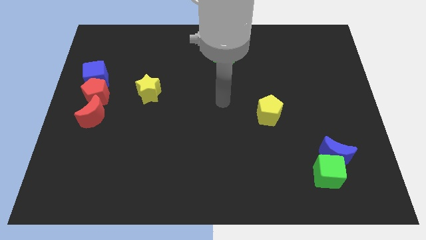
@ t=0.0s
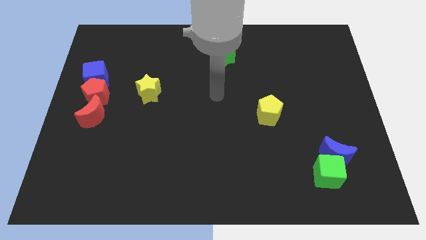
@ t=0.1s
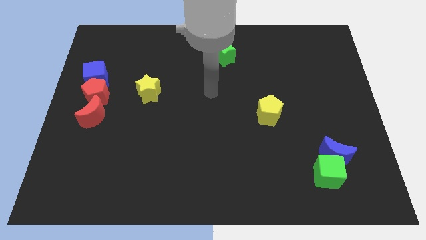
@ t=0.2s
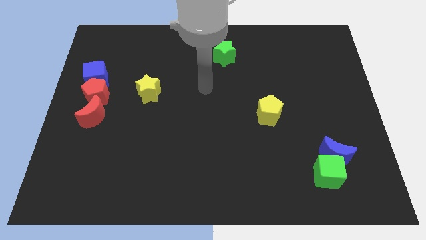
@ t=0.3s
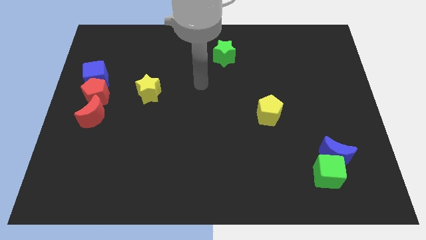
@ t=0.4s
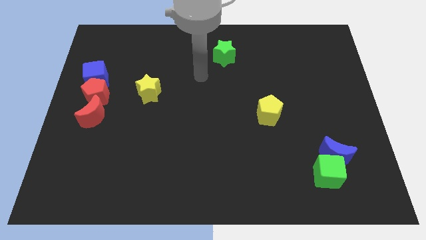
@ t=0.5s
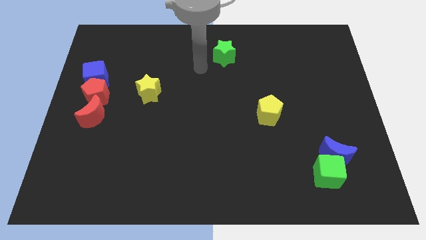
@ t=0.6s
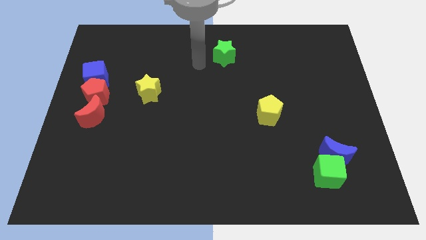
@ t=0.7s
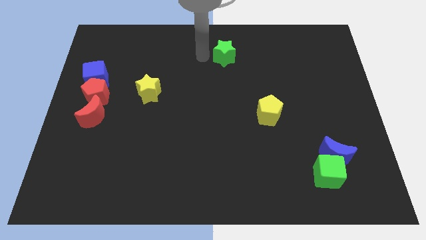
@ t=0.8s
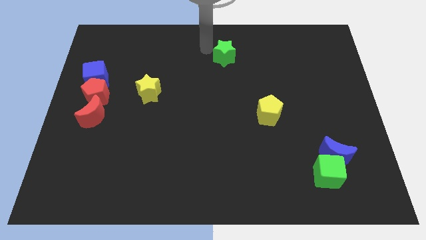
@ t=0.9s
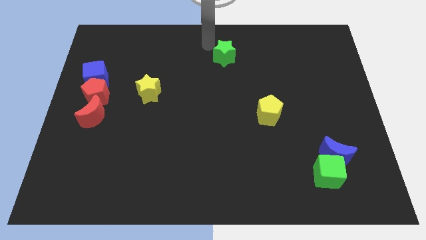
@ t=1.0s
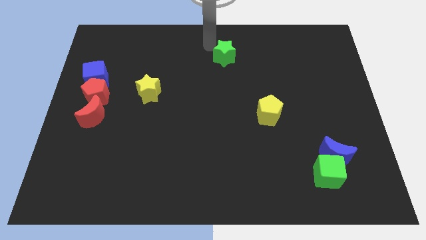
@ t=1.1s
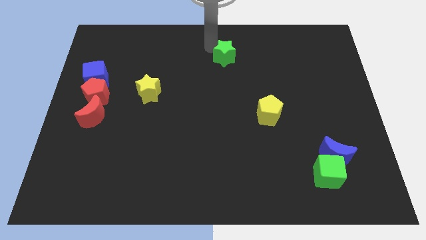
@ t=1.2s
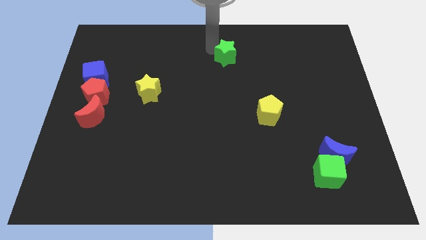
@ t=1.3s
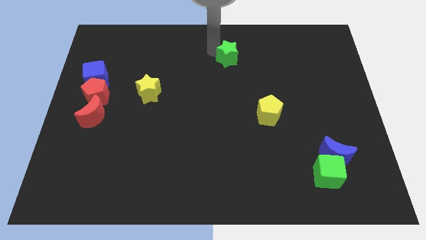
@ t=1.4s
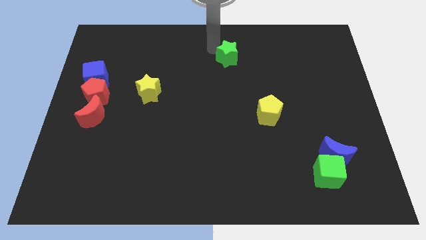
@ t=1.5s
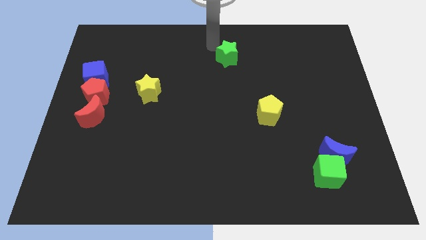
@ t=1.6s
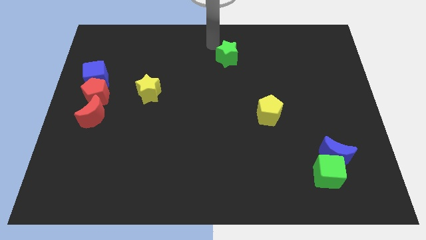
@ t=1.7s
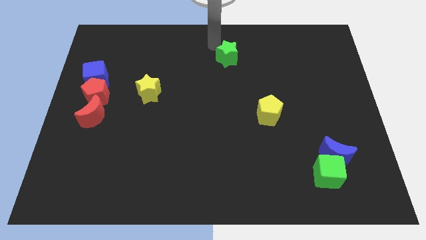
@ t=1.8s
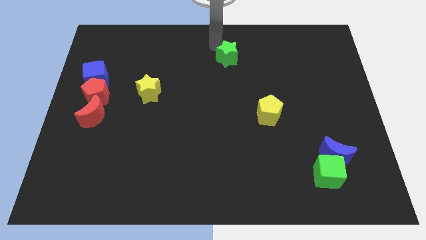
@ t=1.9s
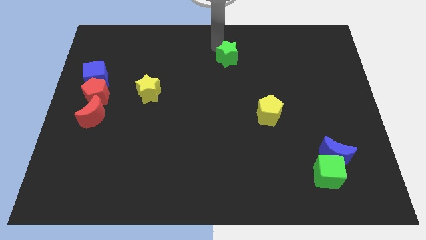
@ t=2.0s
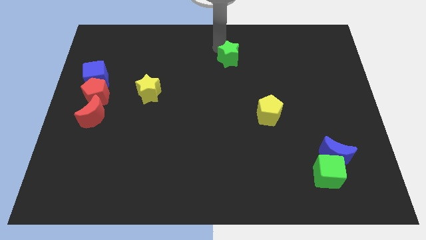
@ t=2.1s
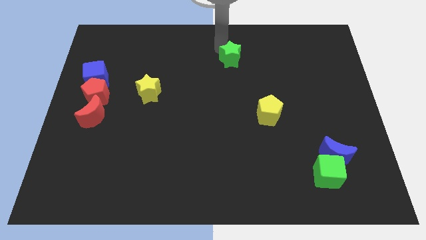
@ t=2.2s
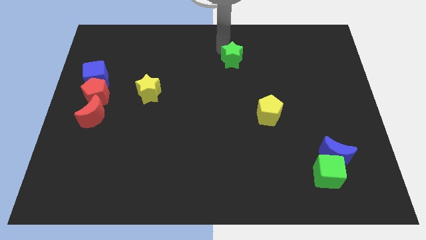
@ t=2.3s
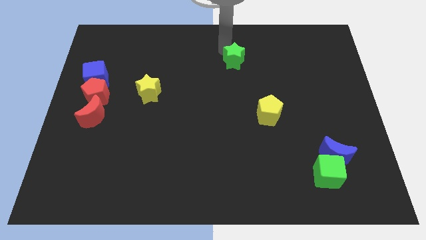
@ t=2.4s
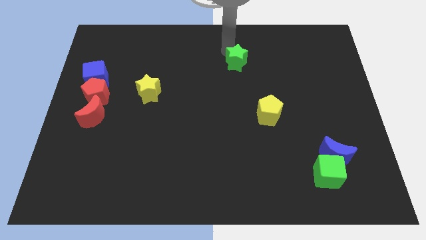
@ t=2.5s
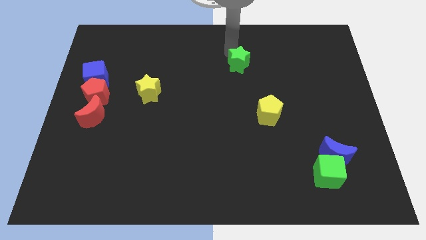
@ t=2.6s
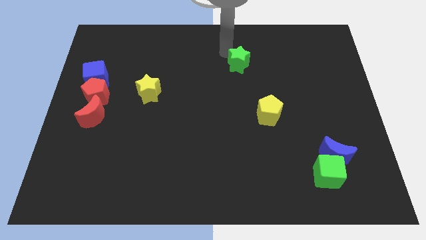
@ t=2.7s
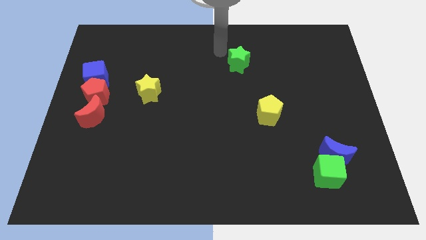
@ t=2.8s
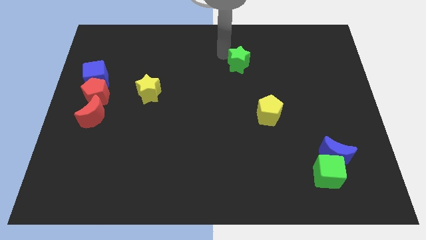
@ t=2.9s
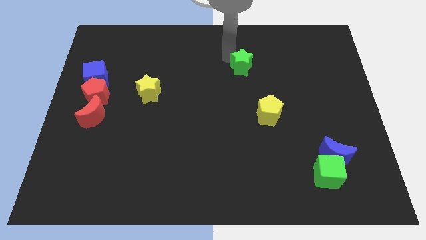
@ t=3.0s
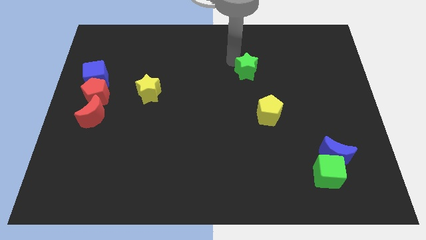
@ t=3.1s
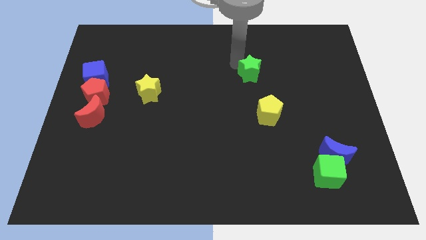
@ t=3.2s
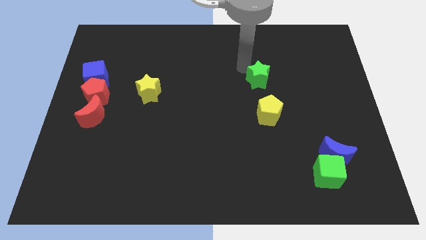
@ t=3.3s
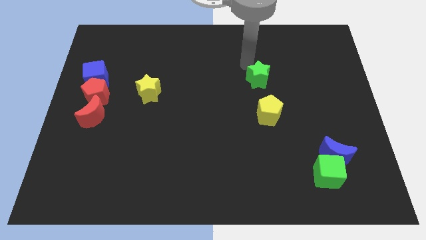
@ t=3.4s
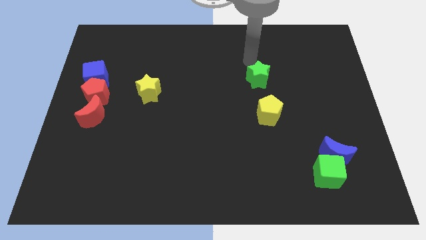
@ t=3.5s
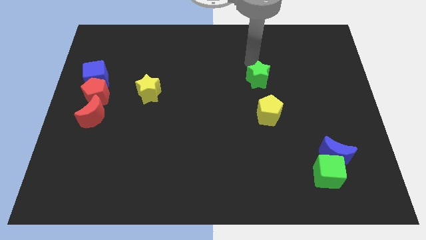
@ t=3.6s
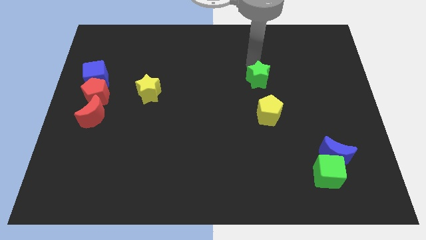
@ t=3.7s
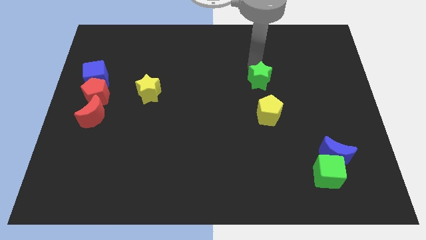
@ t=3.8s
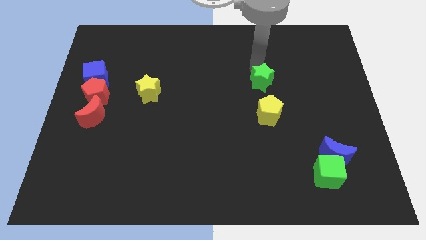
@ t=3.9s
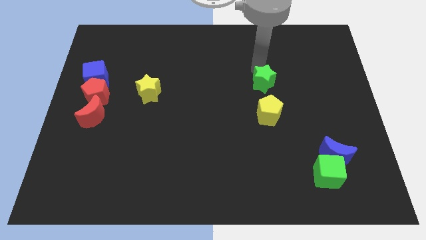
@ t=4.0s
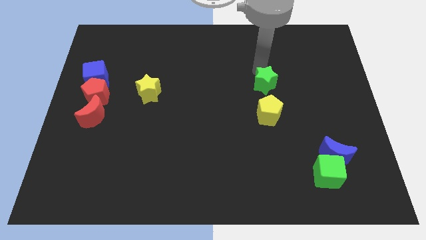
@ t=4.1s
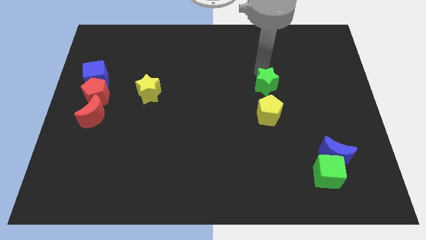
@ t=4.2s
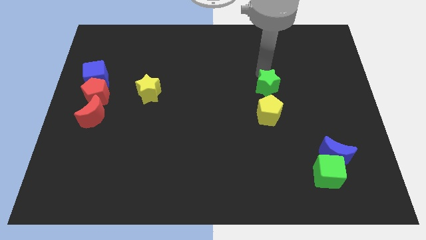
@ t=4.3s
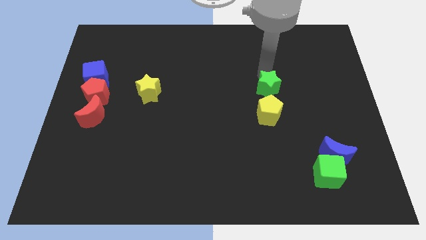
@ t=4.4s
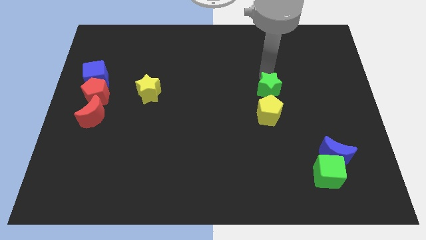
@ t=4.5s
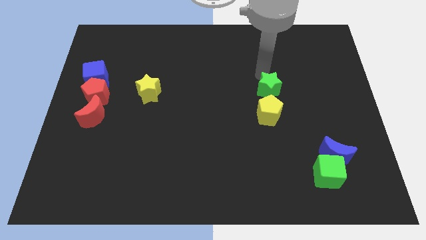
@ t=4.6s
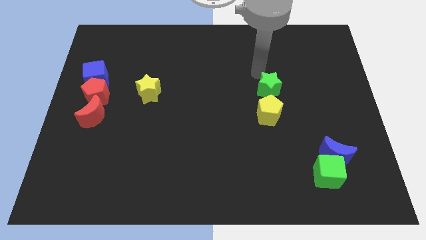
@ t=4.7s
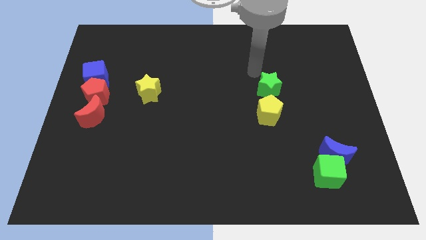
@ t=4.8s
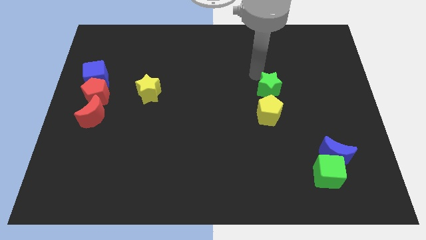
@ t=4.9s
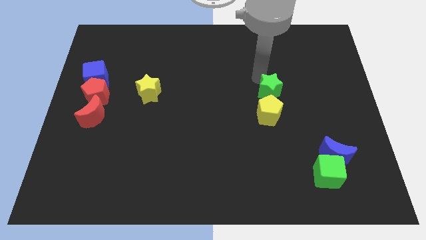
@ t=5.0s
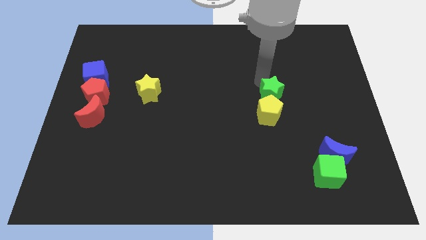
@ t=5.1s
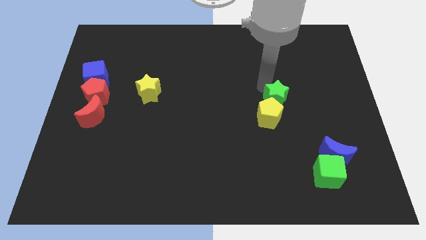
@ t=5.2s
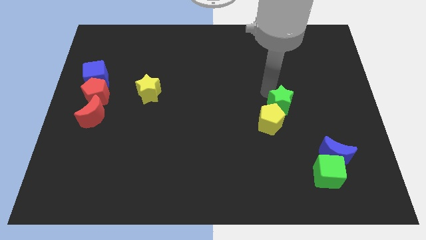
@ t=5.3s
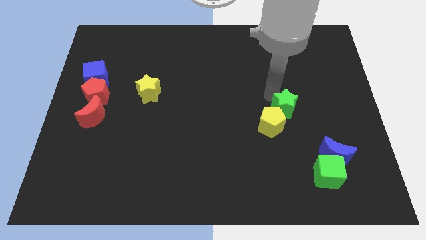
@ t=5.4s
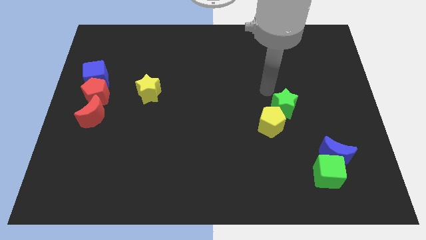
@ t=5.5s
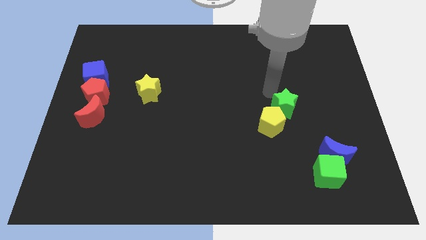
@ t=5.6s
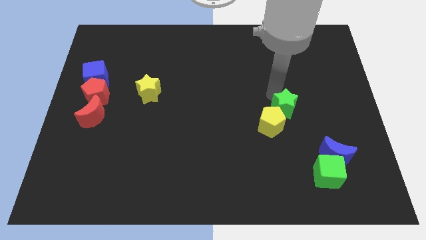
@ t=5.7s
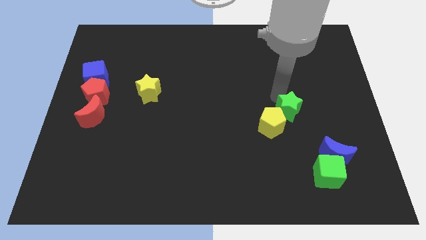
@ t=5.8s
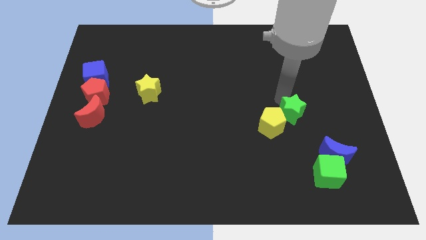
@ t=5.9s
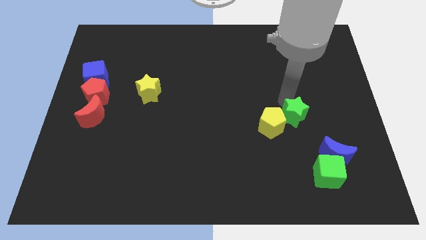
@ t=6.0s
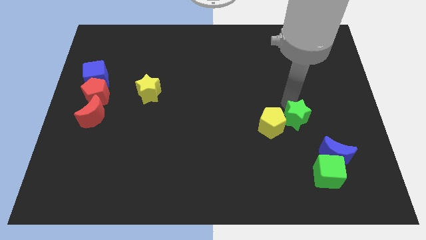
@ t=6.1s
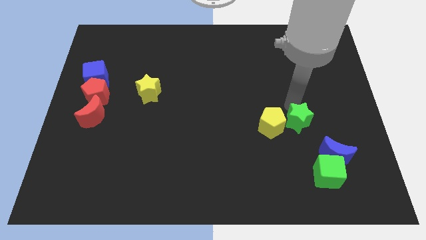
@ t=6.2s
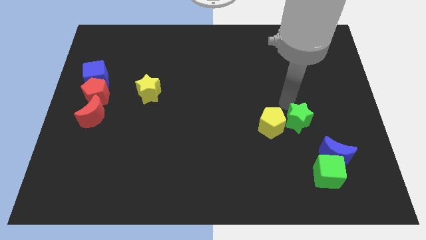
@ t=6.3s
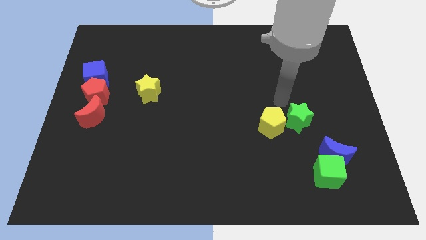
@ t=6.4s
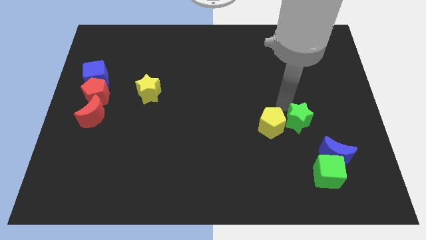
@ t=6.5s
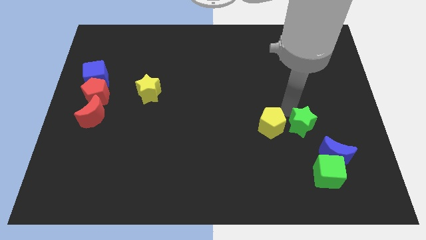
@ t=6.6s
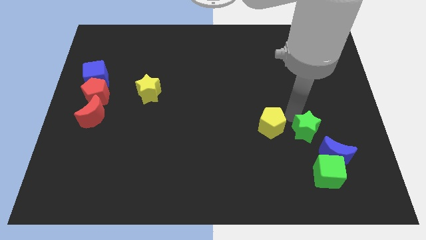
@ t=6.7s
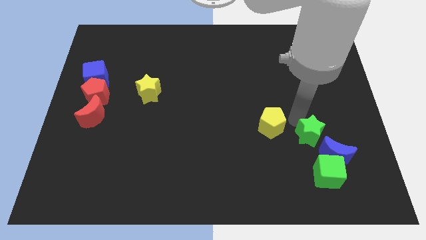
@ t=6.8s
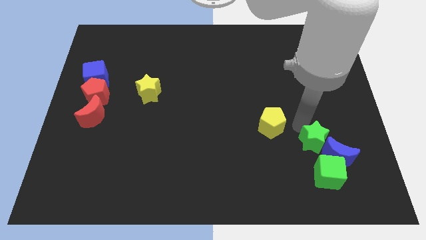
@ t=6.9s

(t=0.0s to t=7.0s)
push the green star towards the blue moon

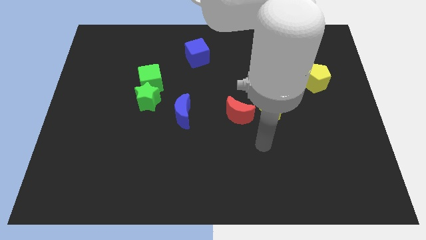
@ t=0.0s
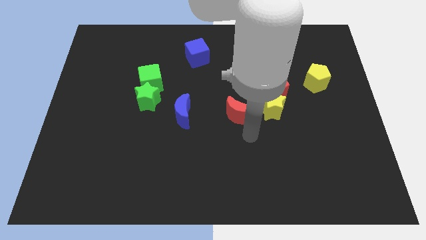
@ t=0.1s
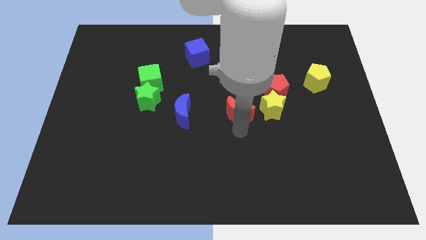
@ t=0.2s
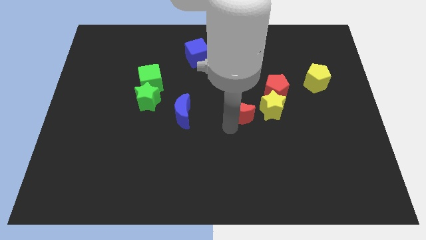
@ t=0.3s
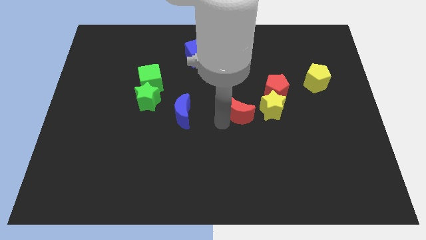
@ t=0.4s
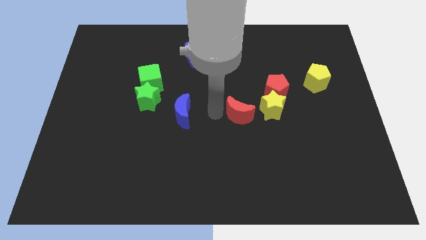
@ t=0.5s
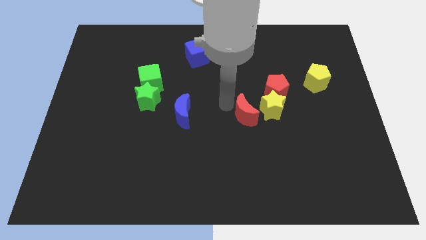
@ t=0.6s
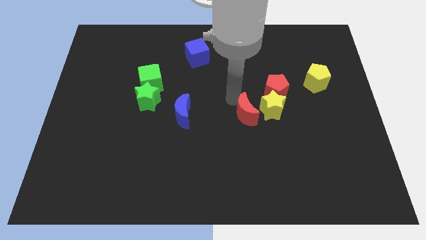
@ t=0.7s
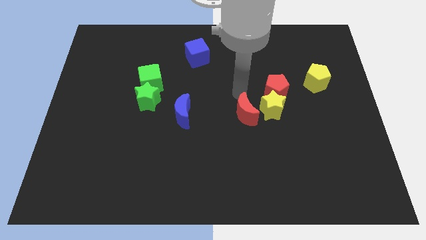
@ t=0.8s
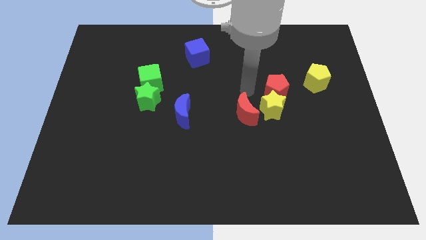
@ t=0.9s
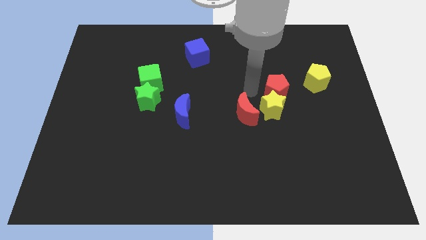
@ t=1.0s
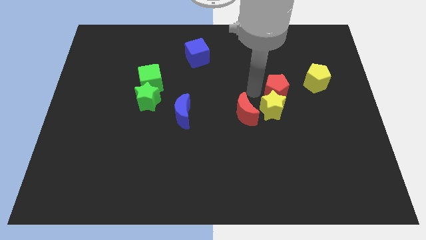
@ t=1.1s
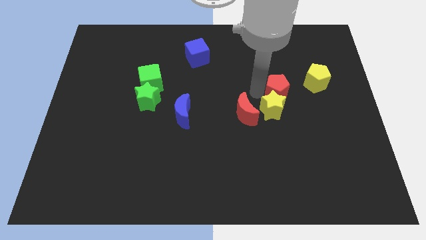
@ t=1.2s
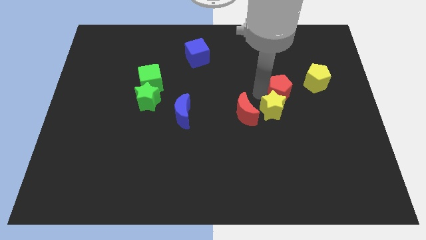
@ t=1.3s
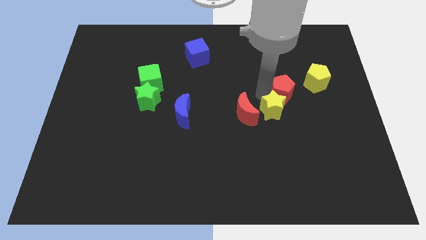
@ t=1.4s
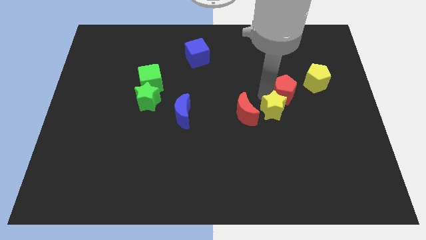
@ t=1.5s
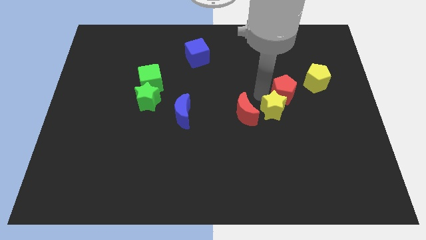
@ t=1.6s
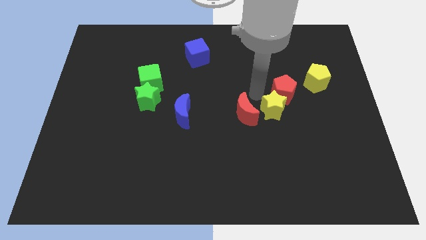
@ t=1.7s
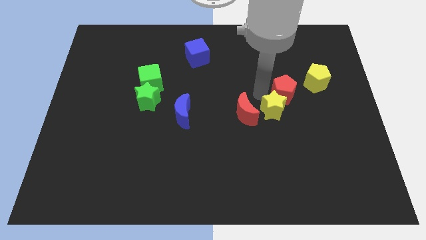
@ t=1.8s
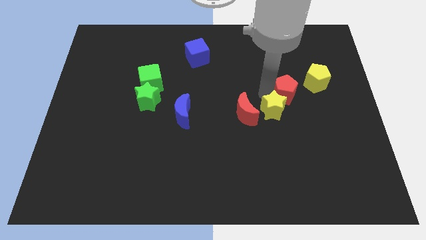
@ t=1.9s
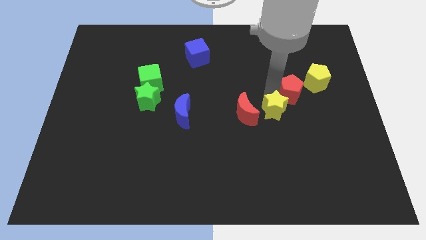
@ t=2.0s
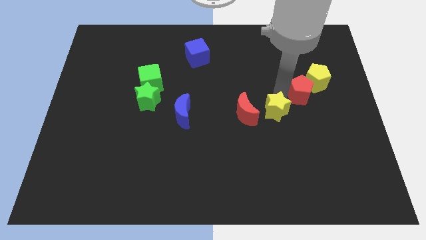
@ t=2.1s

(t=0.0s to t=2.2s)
put the red pentagon next to the yellow pentagon
